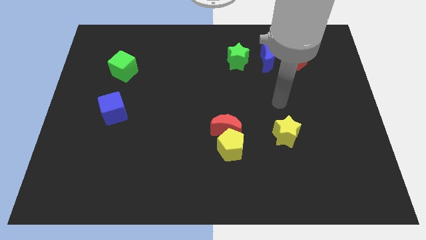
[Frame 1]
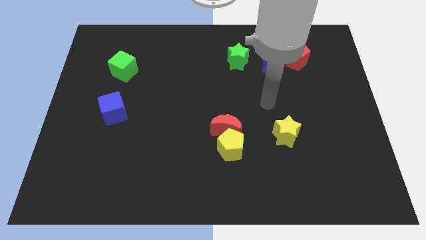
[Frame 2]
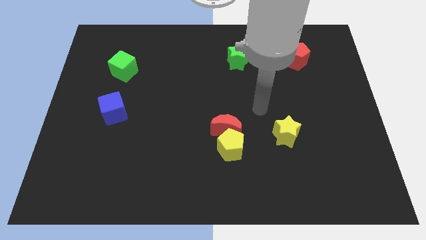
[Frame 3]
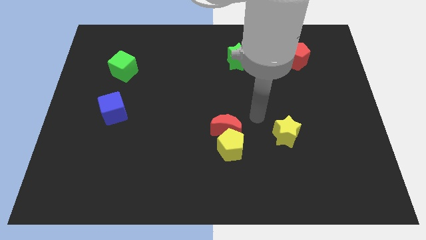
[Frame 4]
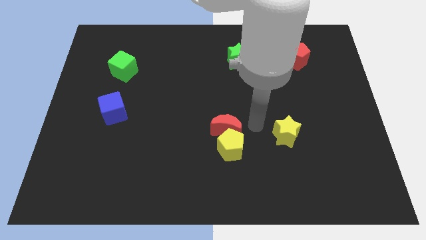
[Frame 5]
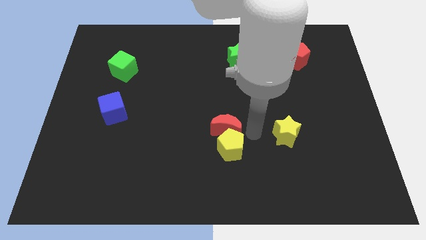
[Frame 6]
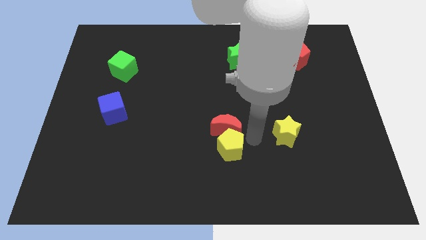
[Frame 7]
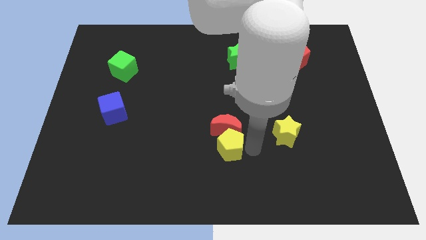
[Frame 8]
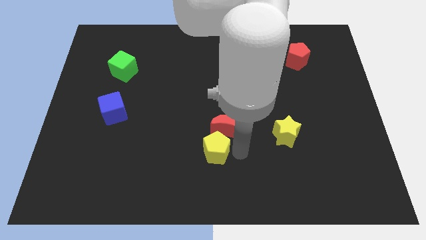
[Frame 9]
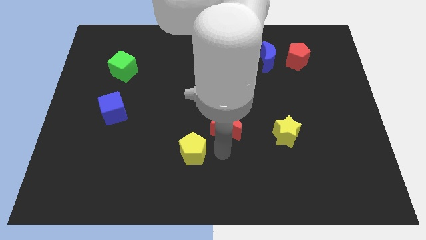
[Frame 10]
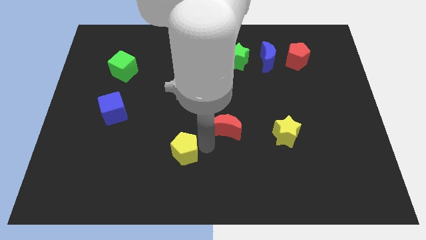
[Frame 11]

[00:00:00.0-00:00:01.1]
separate the red moon from the yellow pentagon

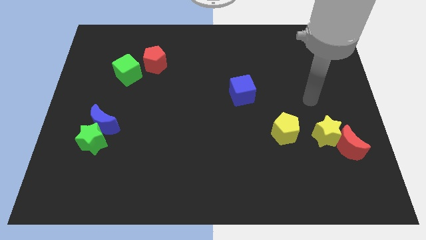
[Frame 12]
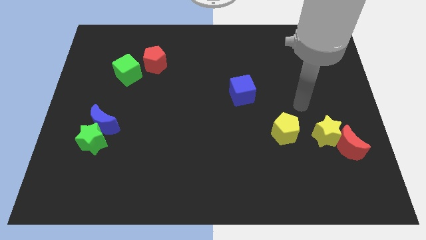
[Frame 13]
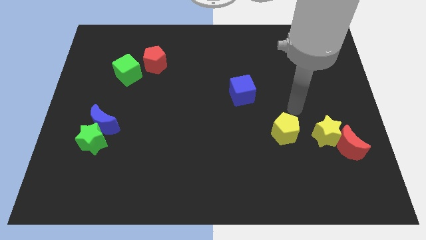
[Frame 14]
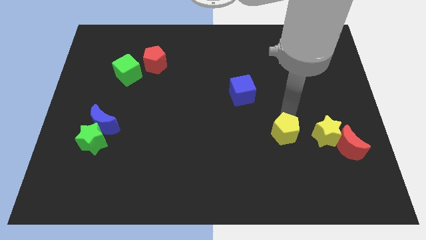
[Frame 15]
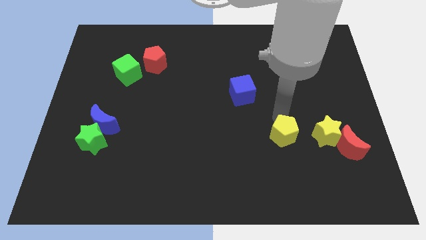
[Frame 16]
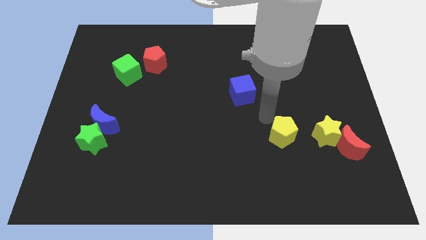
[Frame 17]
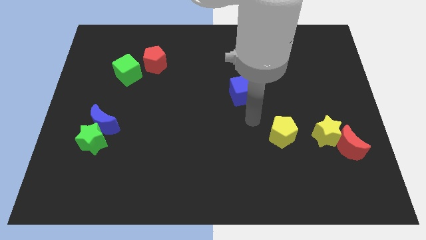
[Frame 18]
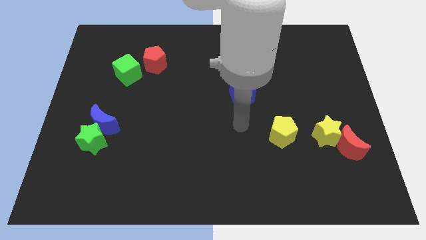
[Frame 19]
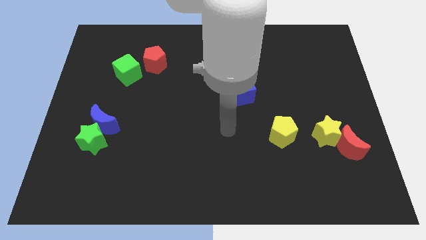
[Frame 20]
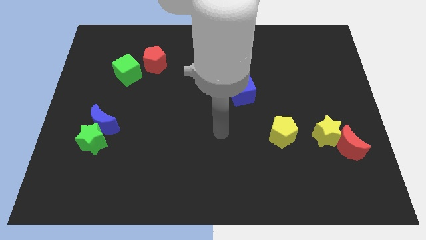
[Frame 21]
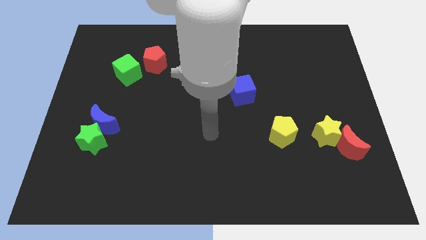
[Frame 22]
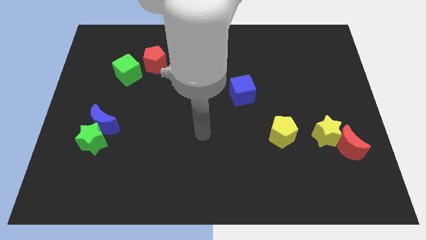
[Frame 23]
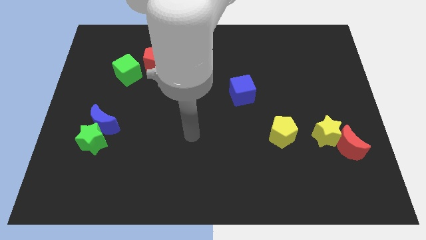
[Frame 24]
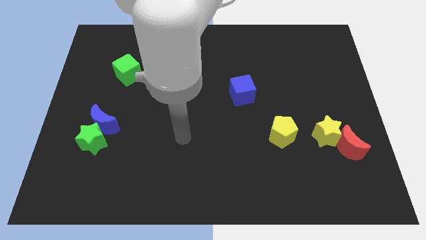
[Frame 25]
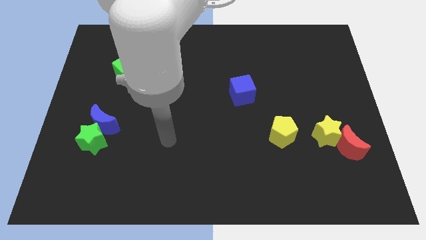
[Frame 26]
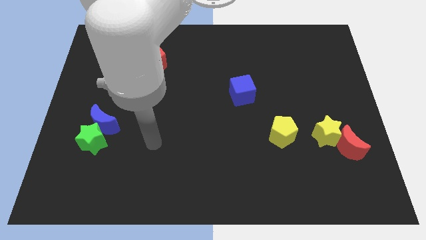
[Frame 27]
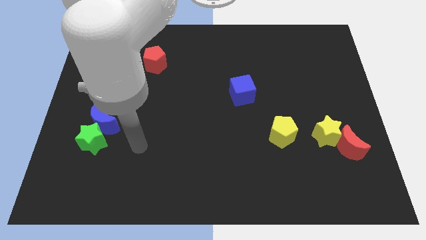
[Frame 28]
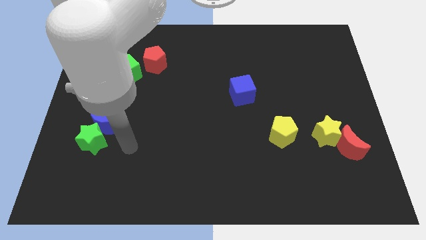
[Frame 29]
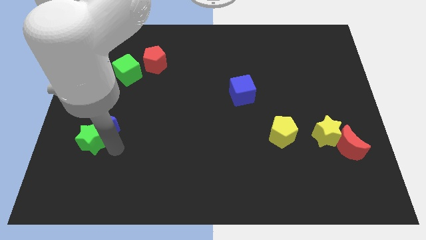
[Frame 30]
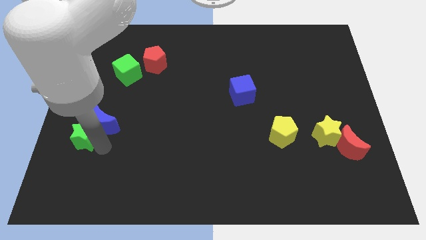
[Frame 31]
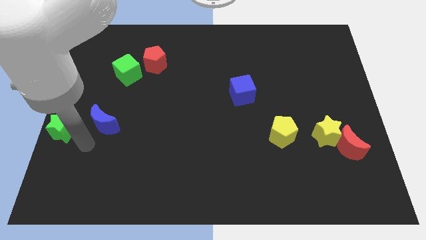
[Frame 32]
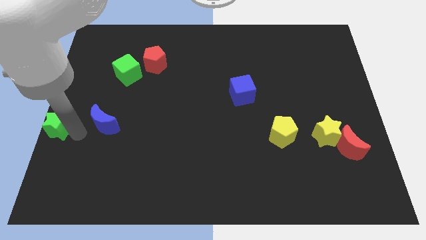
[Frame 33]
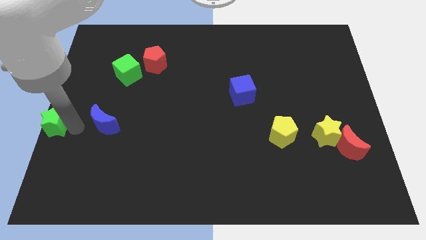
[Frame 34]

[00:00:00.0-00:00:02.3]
move the blue moon away from the green star

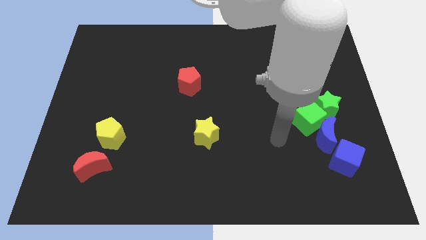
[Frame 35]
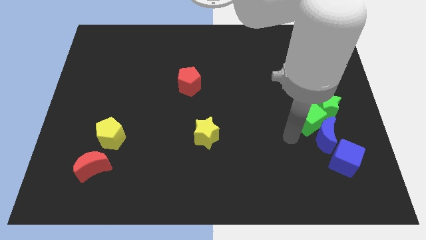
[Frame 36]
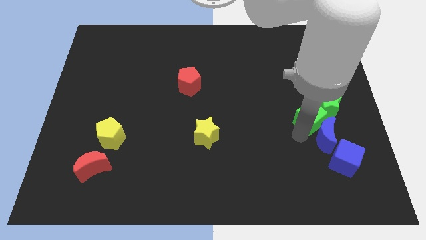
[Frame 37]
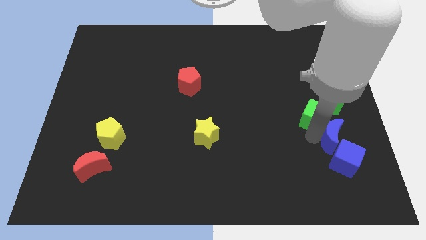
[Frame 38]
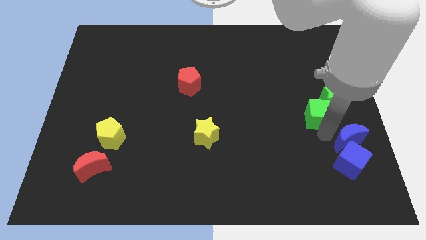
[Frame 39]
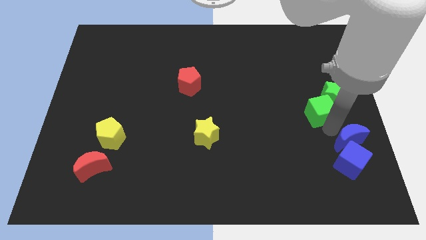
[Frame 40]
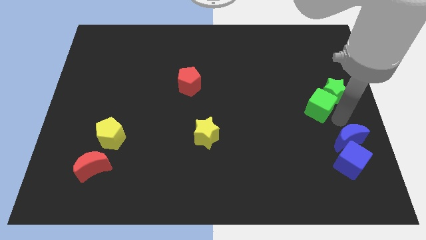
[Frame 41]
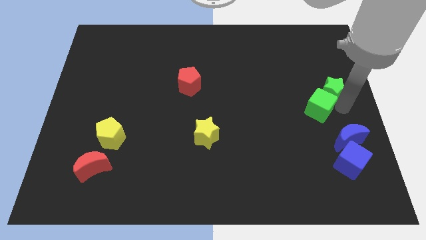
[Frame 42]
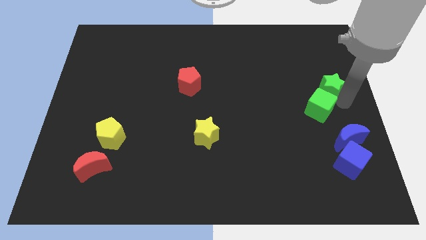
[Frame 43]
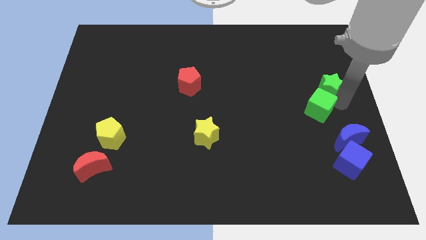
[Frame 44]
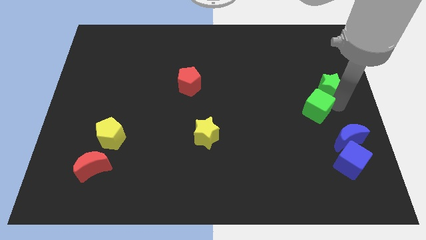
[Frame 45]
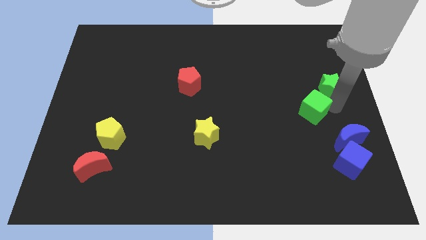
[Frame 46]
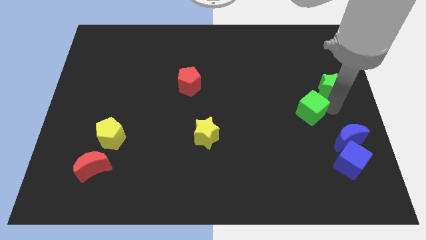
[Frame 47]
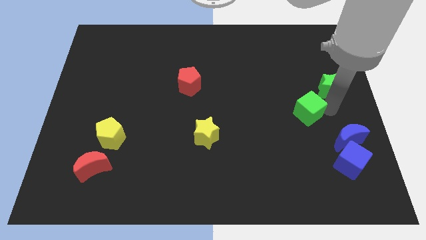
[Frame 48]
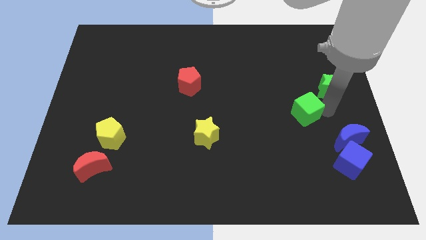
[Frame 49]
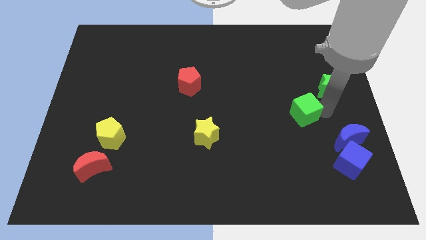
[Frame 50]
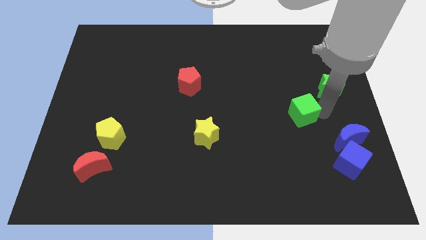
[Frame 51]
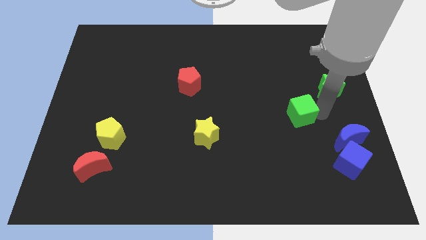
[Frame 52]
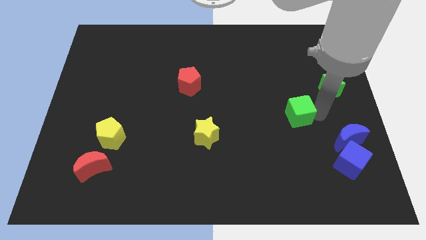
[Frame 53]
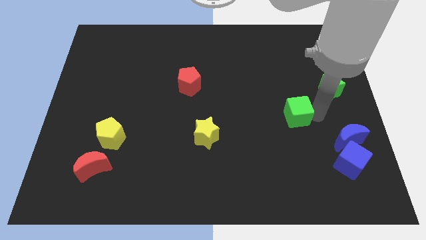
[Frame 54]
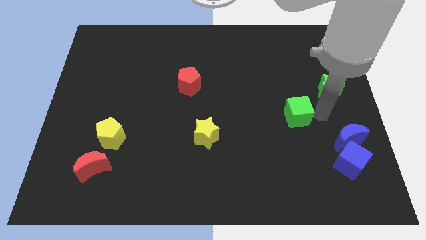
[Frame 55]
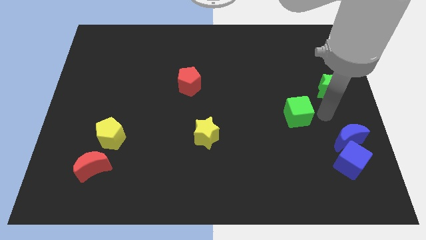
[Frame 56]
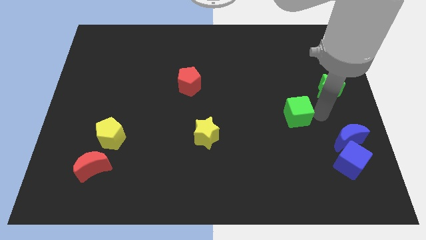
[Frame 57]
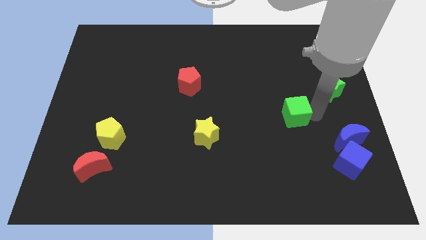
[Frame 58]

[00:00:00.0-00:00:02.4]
move the green cube away from the blue moon and green star

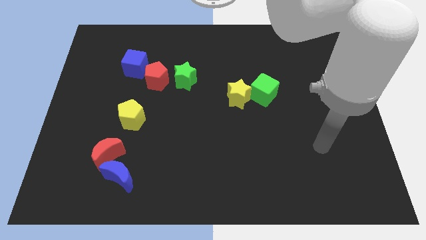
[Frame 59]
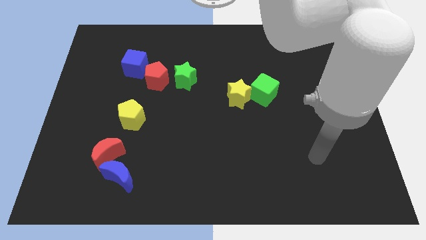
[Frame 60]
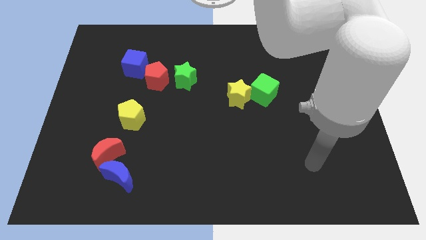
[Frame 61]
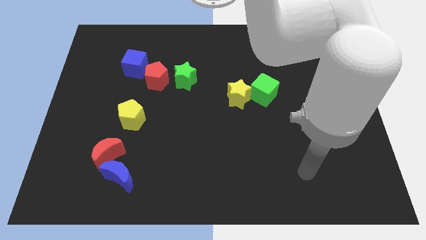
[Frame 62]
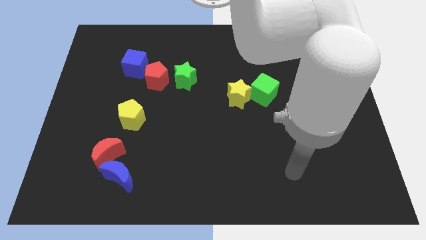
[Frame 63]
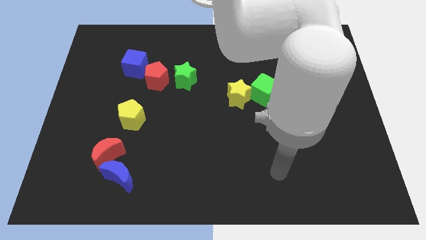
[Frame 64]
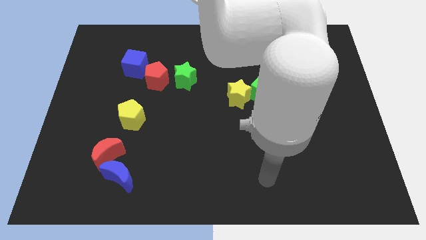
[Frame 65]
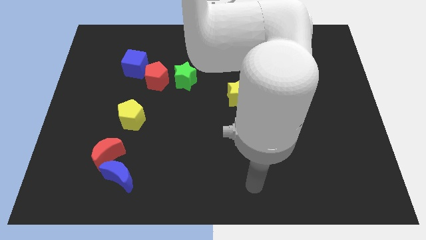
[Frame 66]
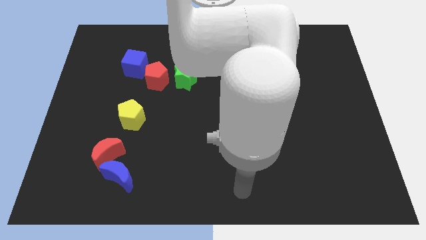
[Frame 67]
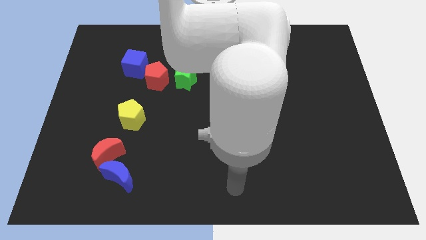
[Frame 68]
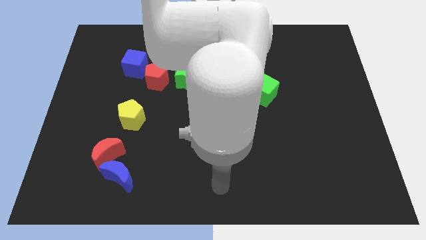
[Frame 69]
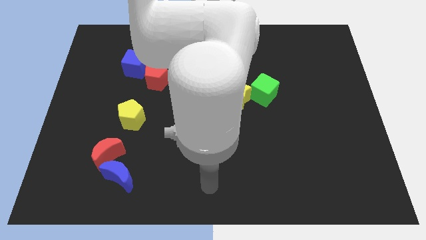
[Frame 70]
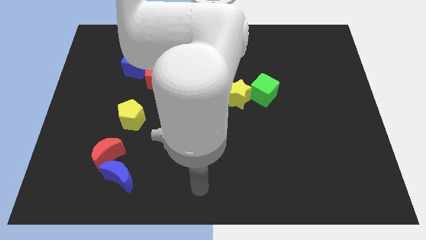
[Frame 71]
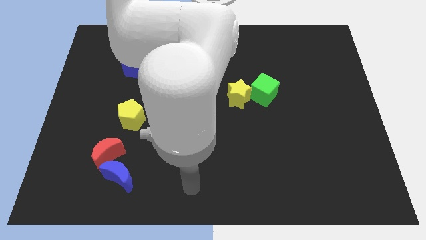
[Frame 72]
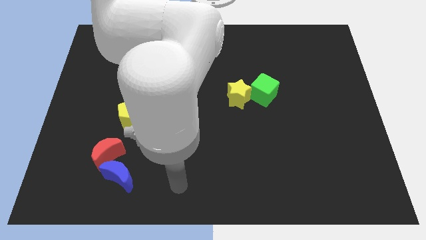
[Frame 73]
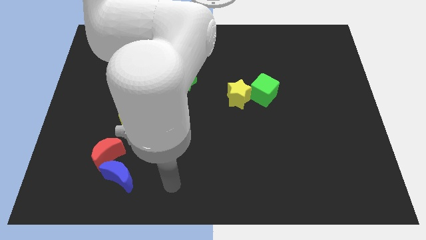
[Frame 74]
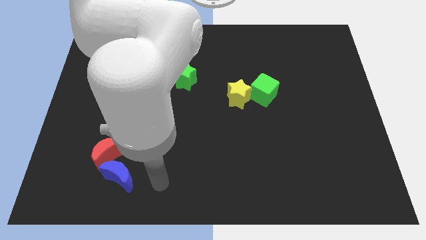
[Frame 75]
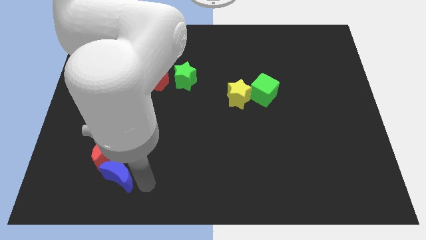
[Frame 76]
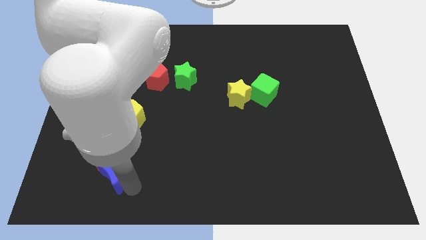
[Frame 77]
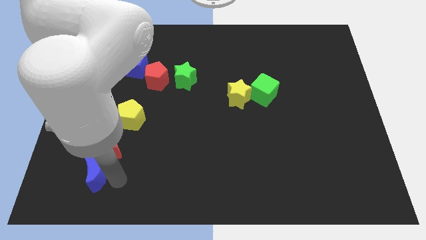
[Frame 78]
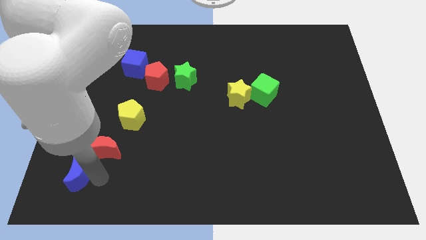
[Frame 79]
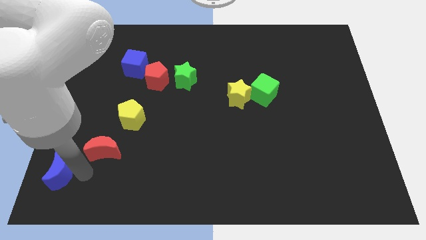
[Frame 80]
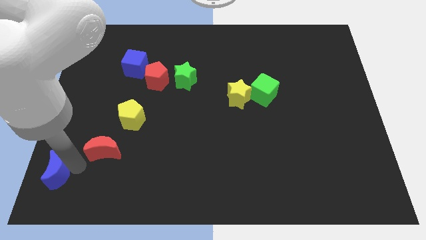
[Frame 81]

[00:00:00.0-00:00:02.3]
pull the red moon apart from the blue moon

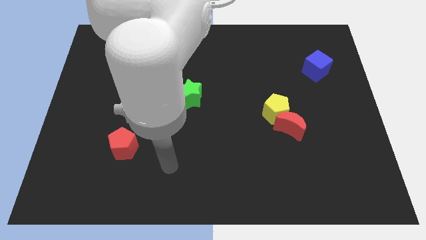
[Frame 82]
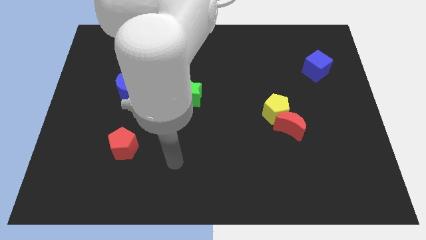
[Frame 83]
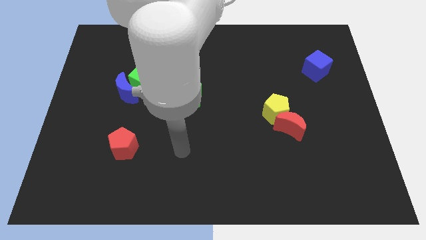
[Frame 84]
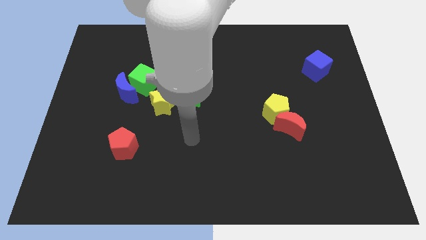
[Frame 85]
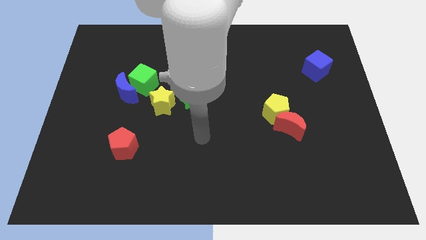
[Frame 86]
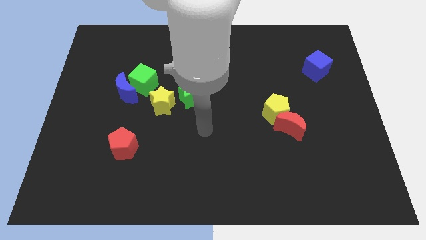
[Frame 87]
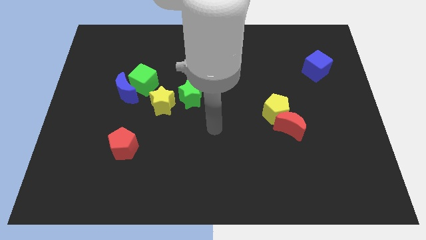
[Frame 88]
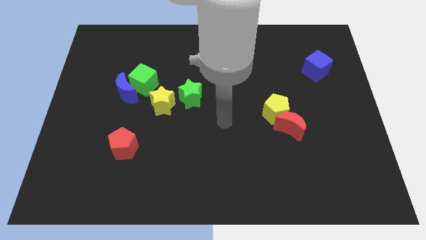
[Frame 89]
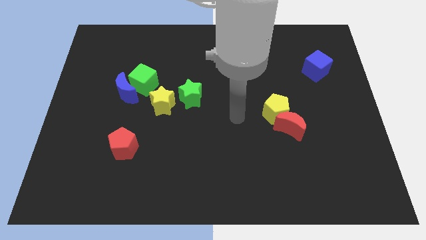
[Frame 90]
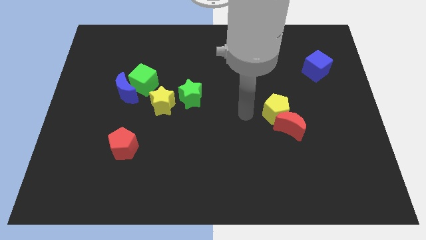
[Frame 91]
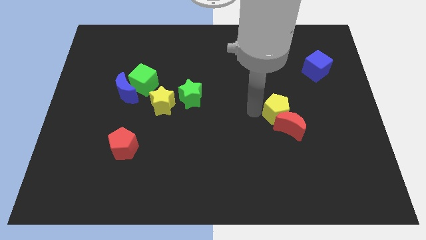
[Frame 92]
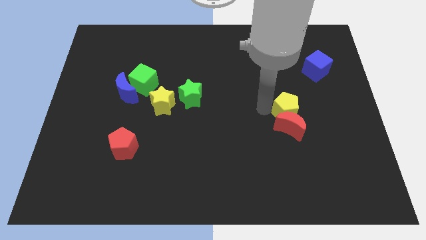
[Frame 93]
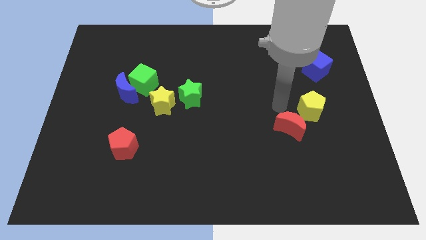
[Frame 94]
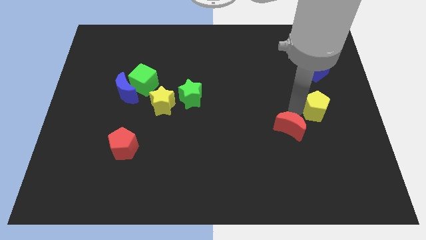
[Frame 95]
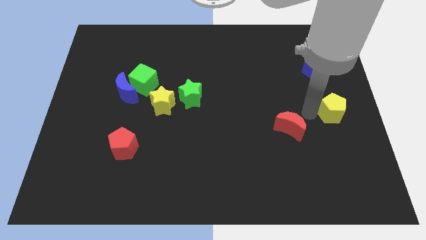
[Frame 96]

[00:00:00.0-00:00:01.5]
pull the red moon apart from the yellow pentagon
